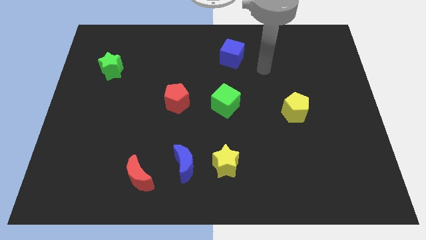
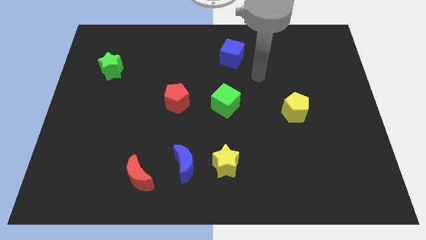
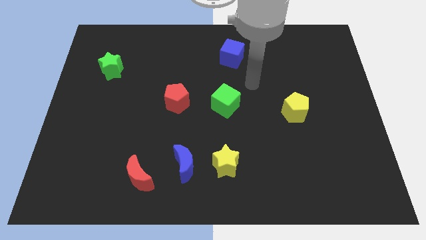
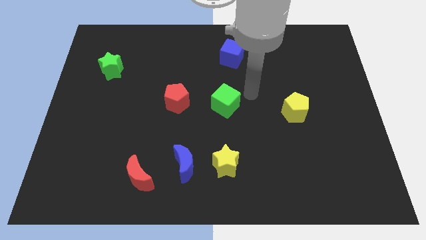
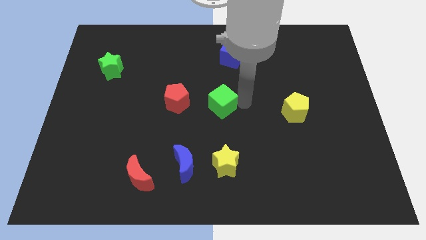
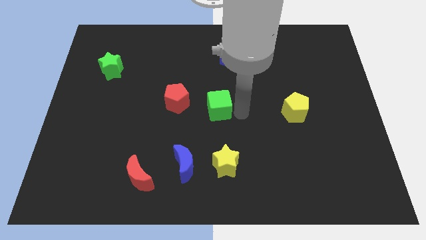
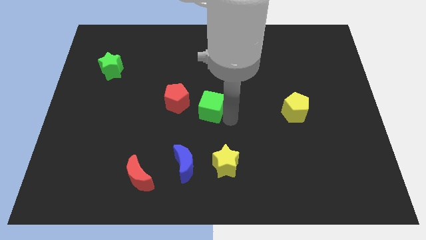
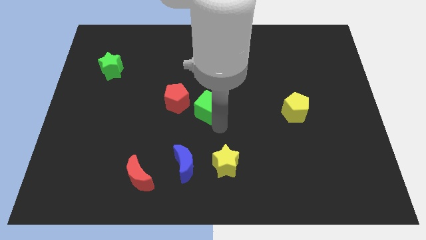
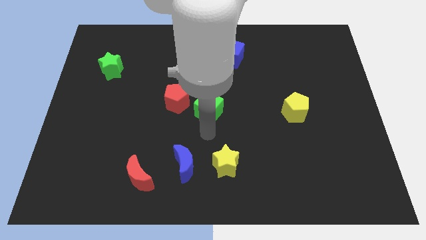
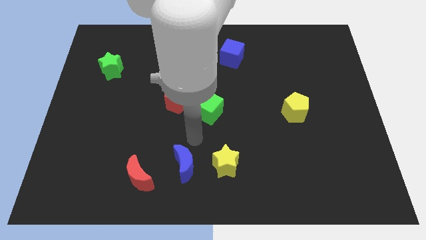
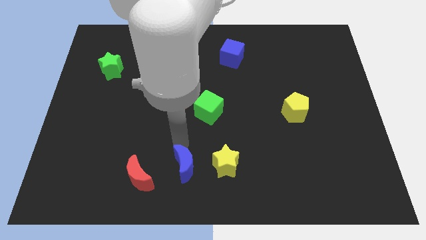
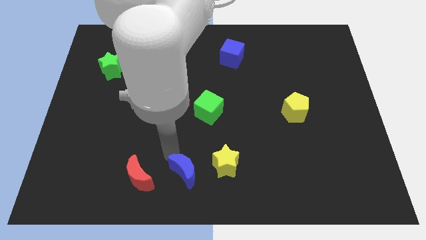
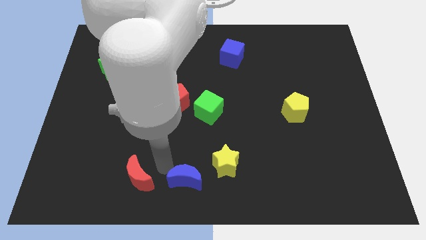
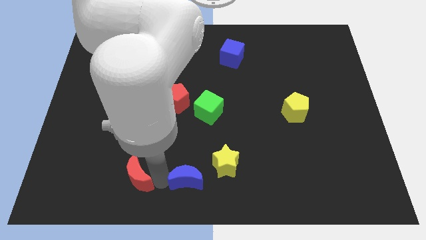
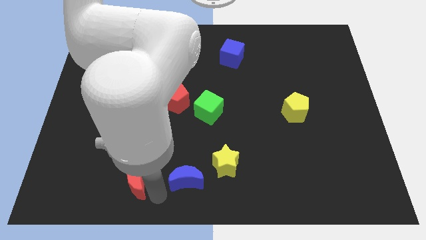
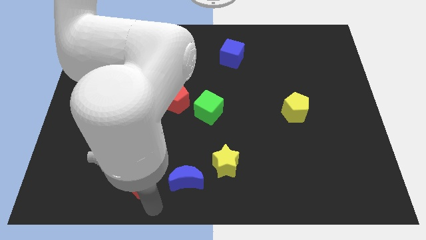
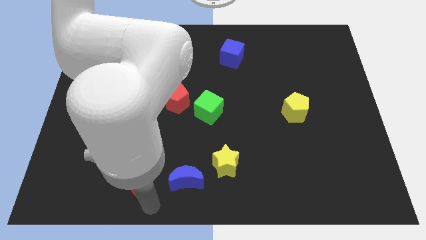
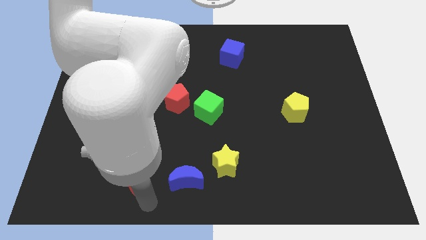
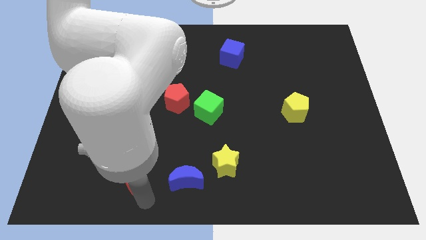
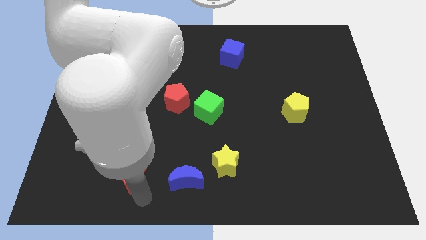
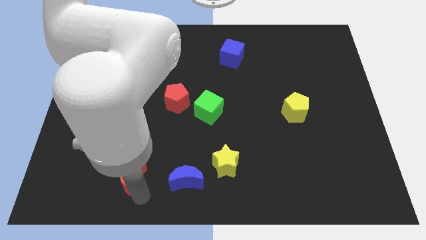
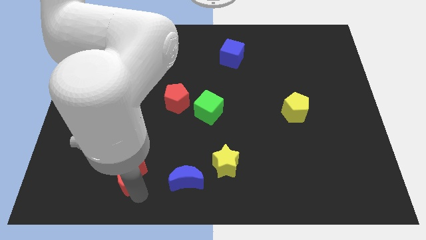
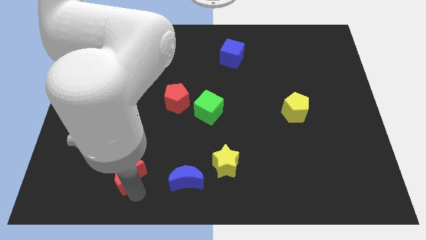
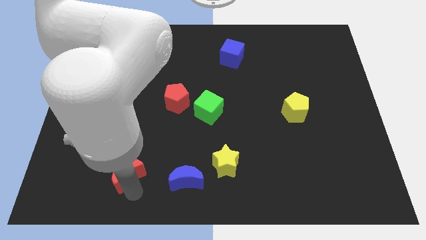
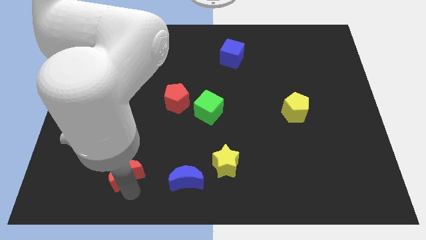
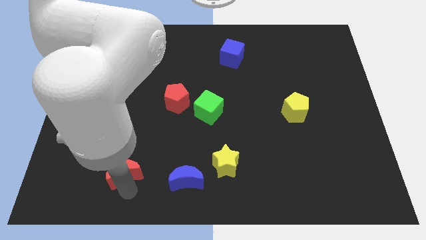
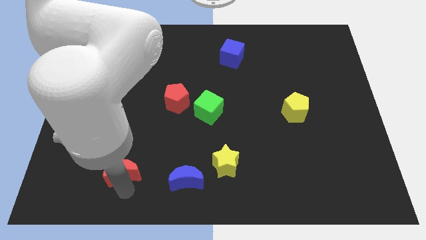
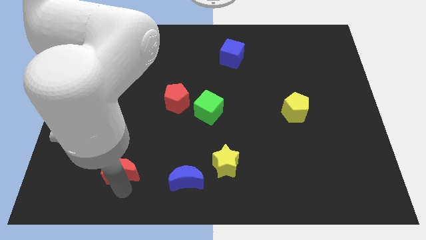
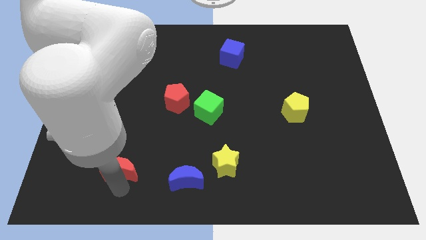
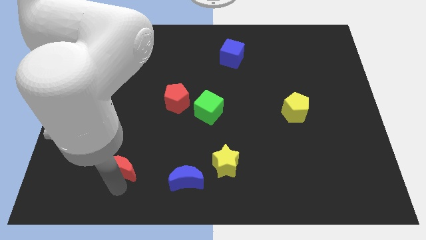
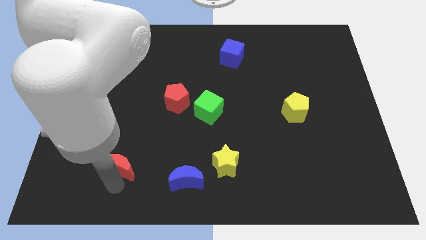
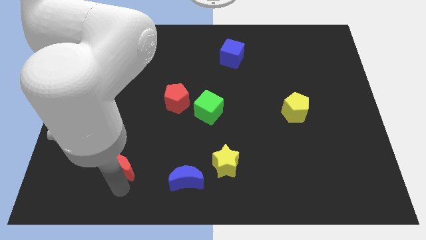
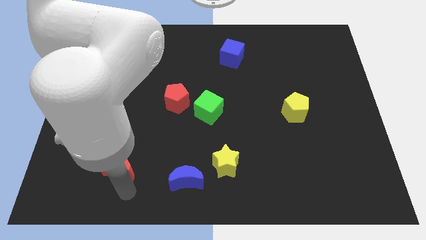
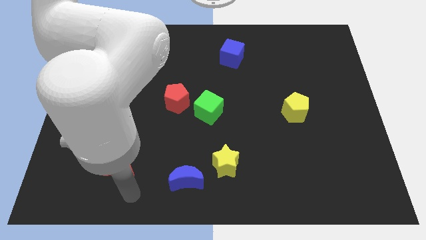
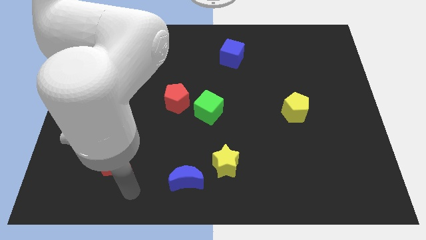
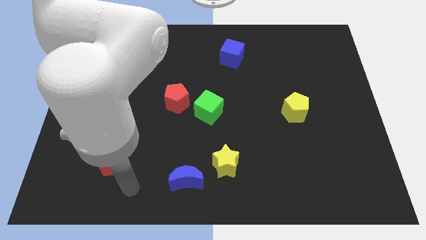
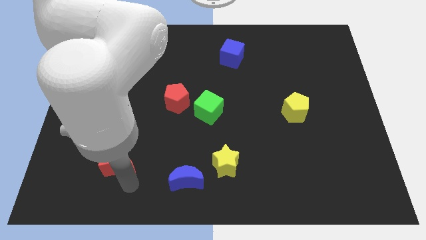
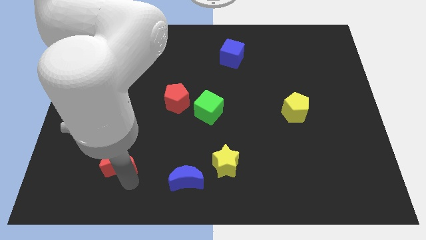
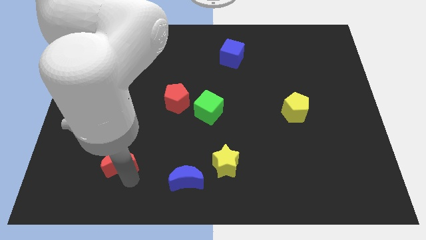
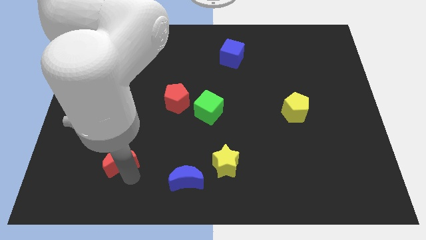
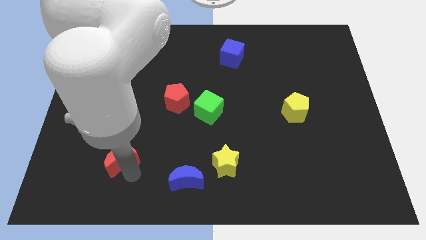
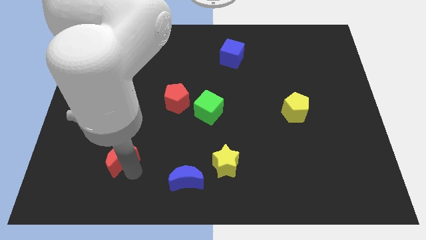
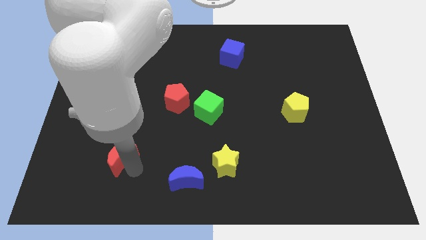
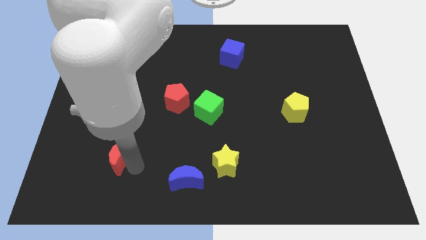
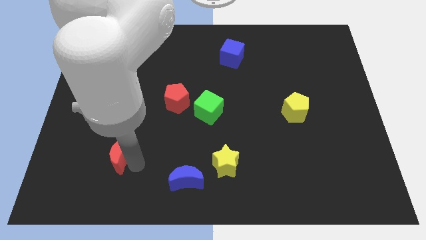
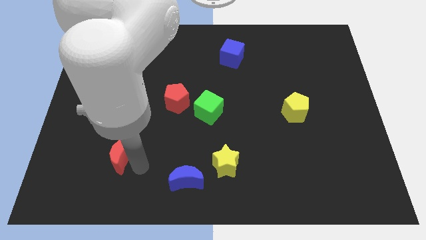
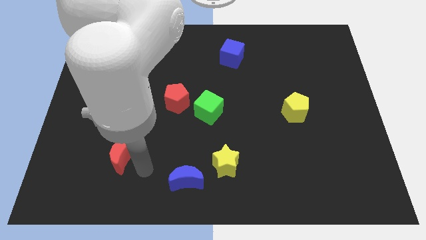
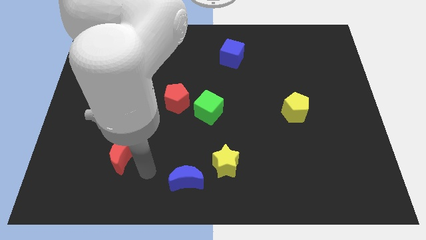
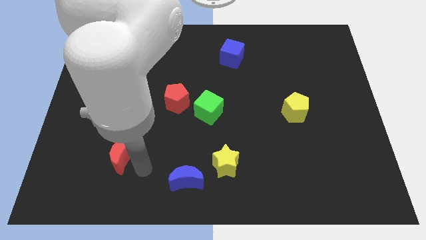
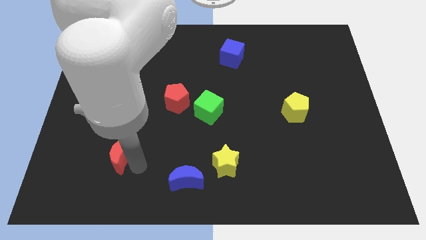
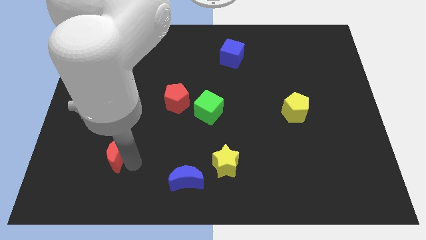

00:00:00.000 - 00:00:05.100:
slightly move the red moon up and to the left

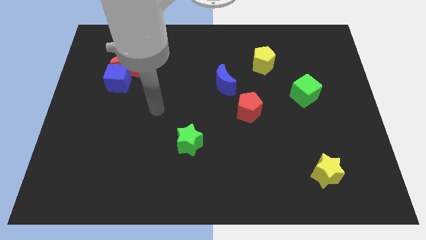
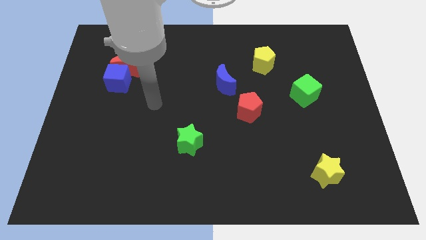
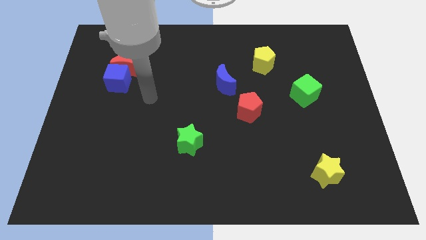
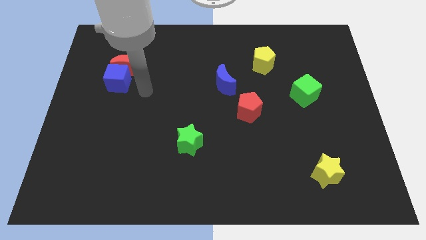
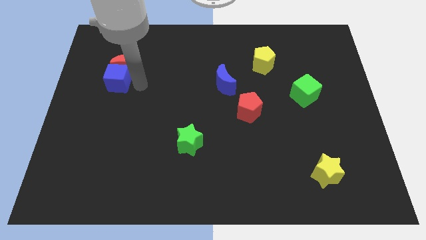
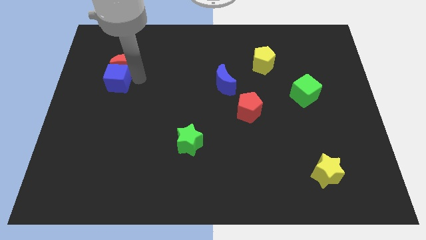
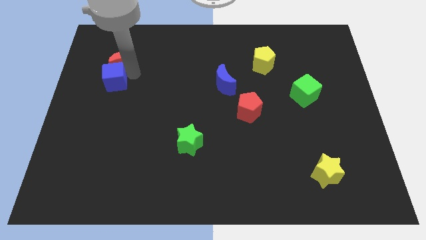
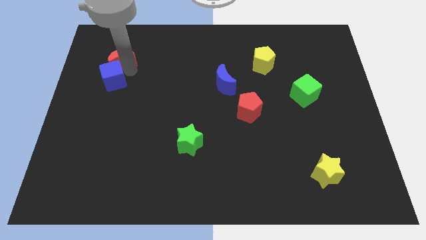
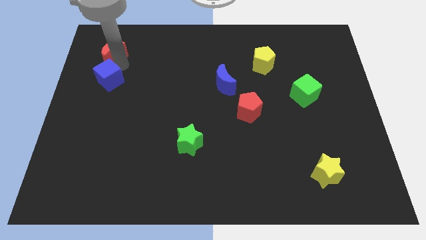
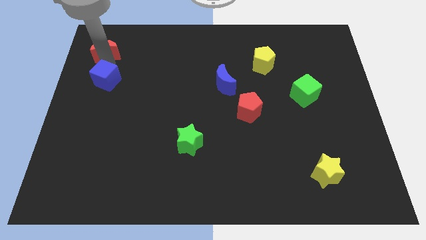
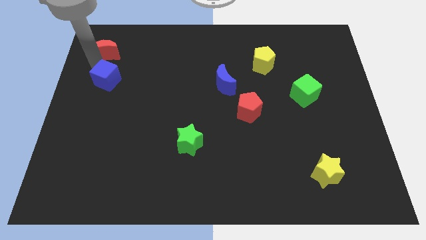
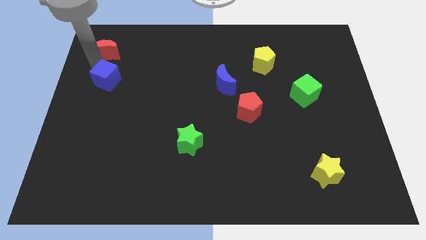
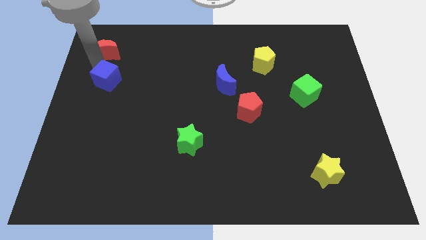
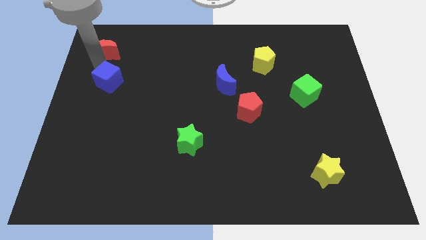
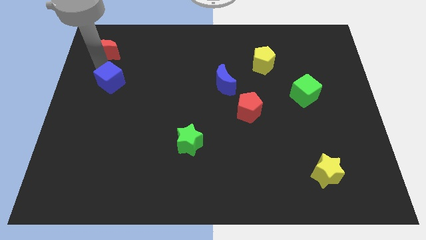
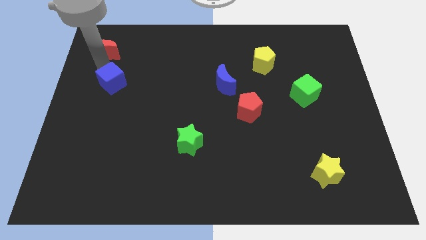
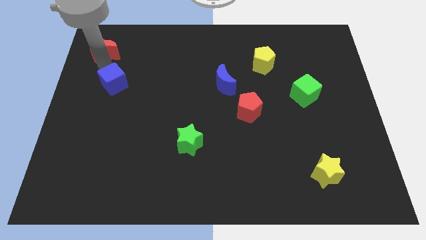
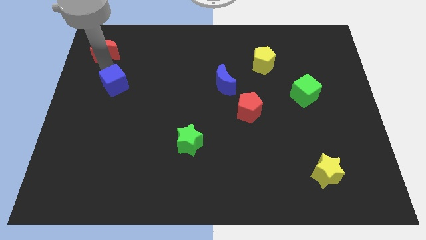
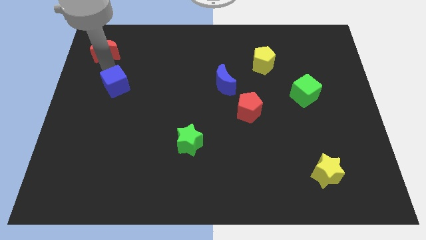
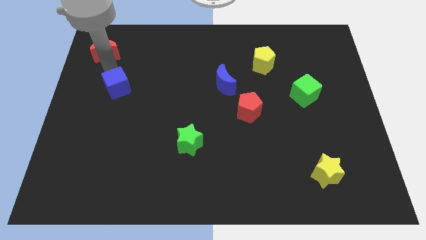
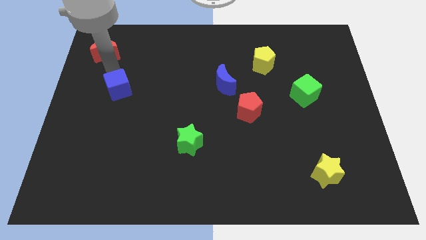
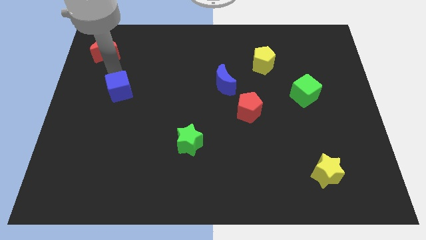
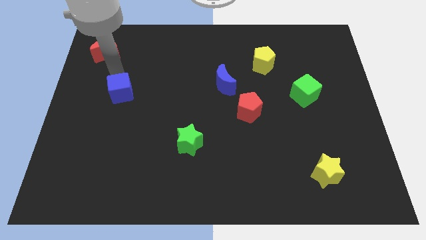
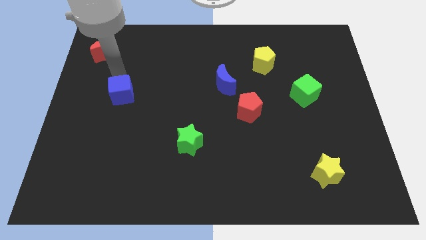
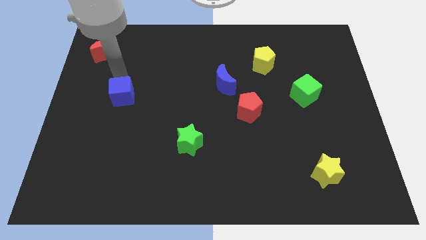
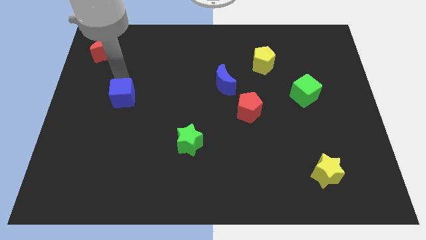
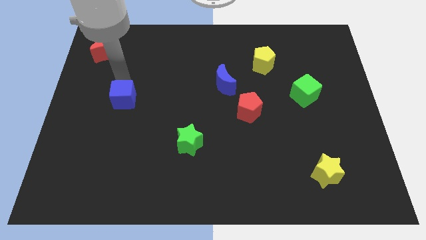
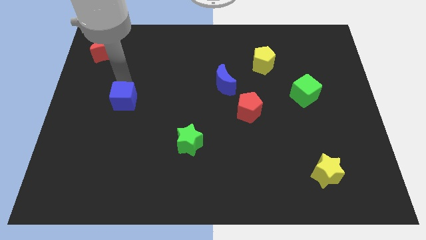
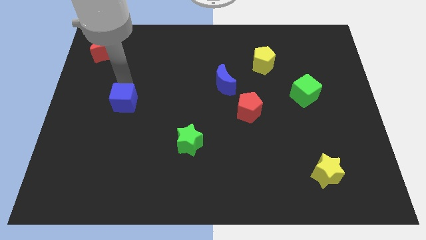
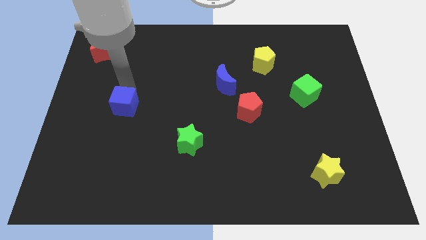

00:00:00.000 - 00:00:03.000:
slightly move the blue cube down
